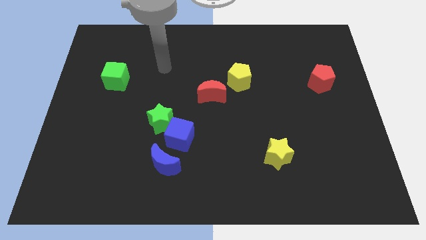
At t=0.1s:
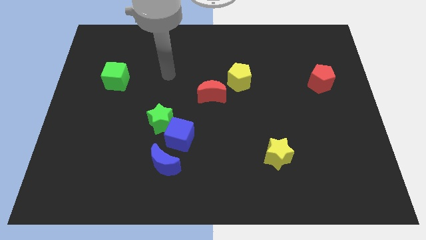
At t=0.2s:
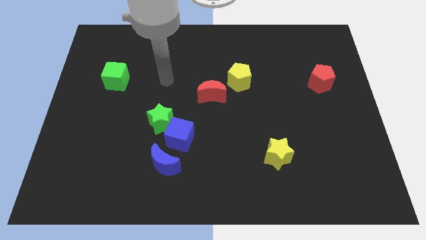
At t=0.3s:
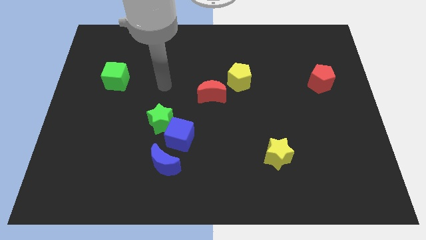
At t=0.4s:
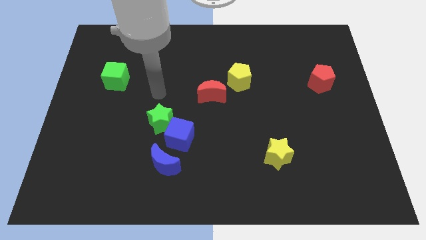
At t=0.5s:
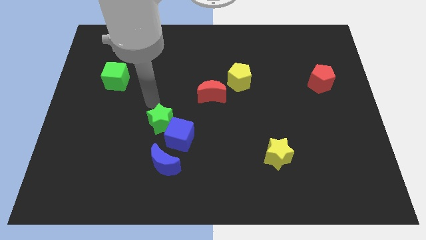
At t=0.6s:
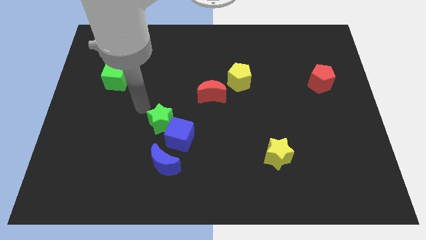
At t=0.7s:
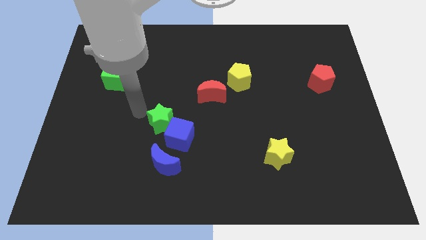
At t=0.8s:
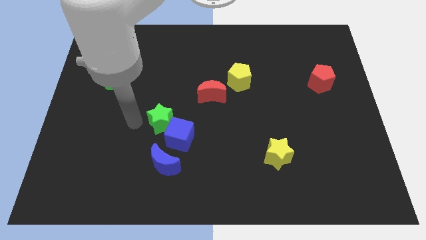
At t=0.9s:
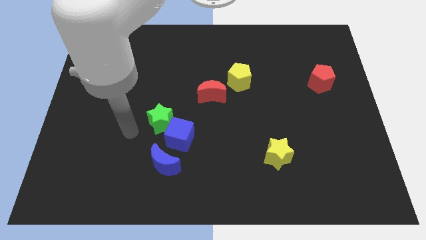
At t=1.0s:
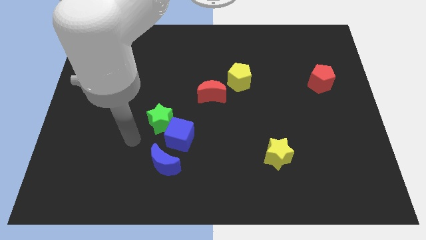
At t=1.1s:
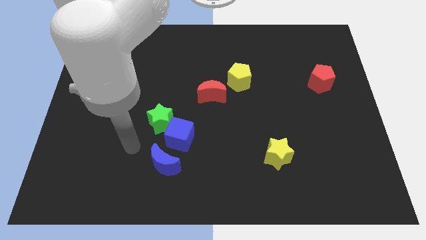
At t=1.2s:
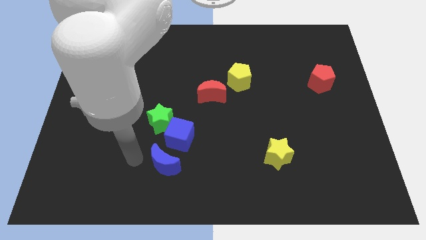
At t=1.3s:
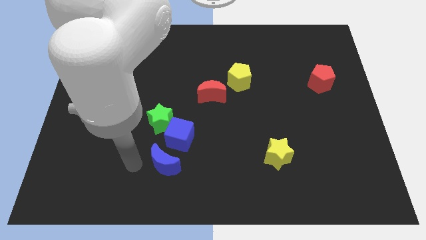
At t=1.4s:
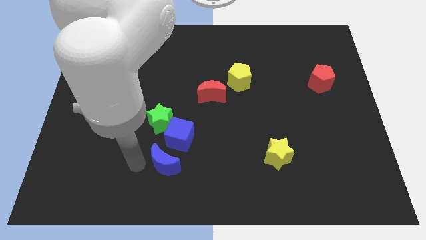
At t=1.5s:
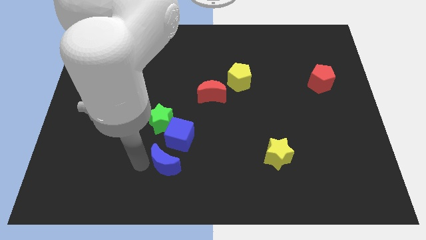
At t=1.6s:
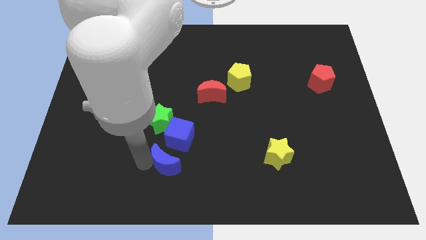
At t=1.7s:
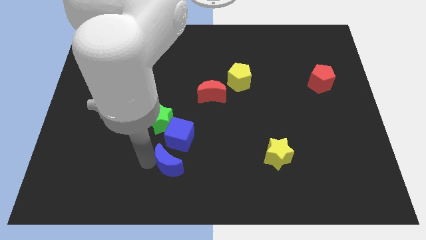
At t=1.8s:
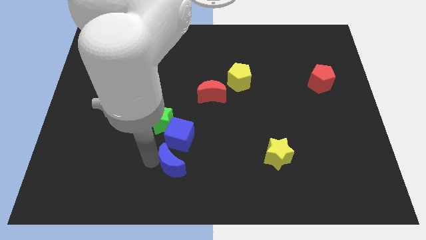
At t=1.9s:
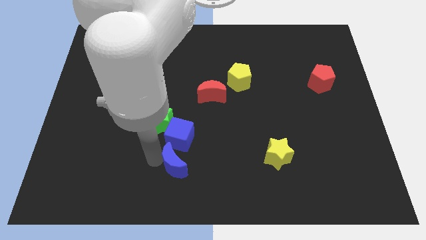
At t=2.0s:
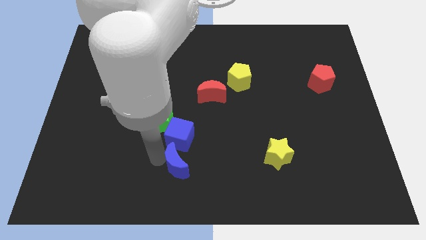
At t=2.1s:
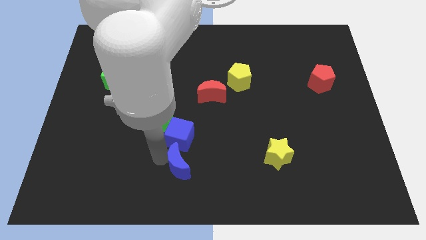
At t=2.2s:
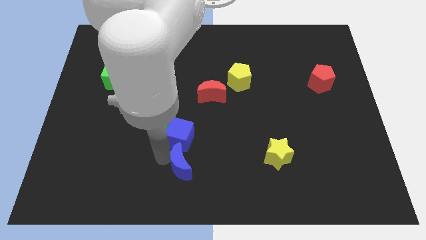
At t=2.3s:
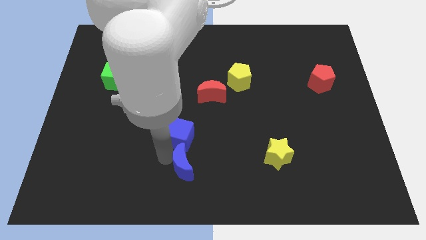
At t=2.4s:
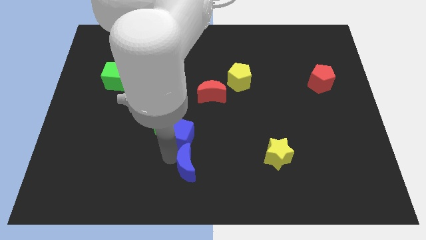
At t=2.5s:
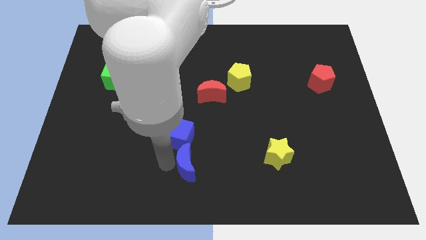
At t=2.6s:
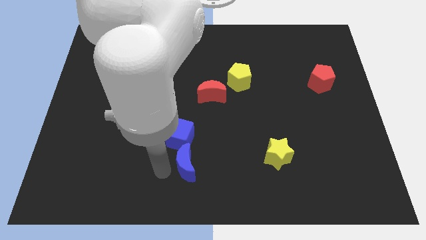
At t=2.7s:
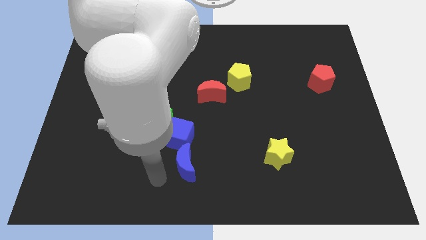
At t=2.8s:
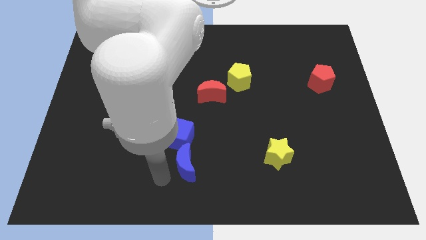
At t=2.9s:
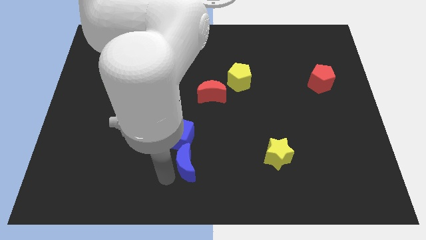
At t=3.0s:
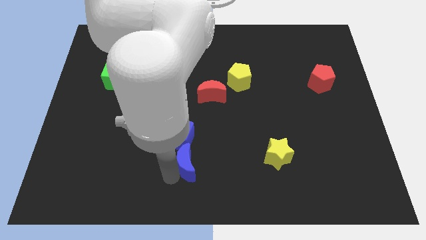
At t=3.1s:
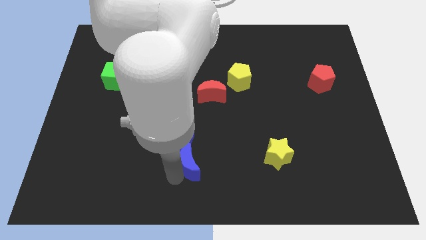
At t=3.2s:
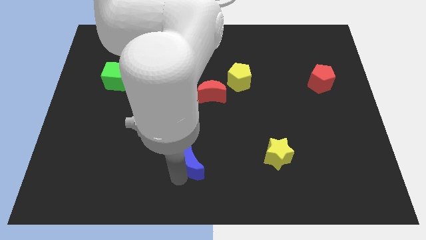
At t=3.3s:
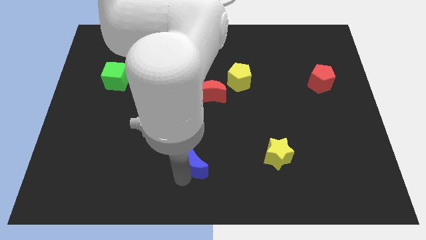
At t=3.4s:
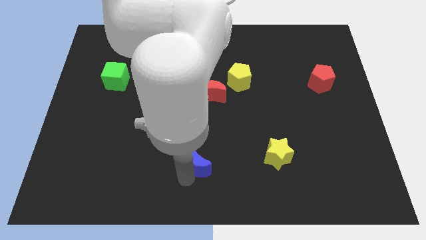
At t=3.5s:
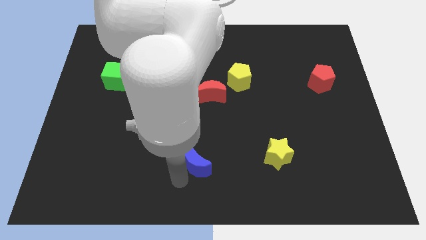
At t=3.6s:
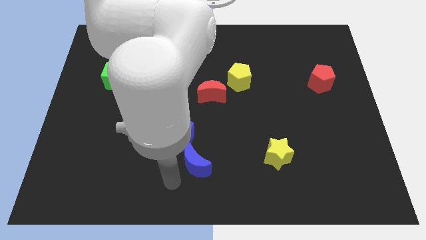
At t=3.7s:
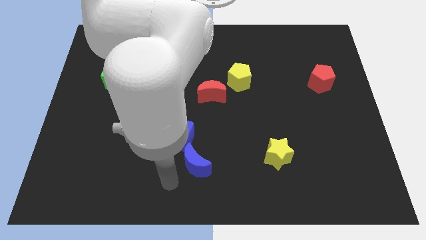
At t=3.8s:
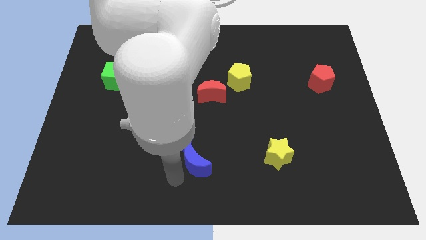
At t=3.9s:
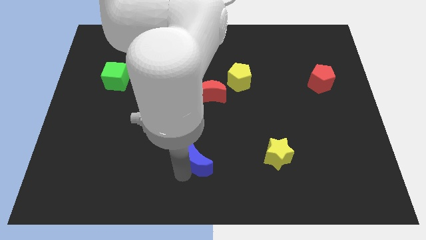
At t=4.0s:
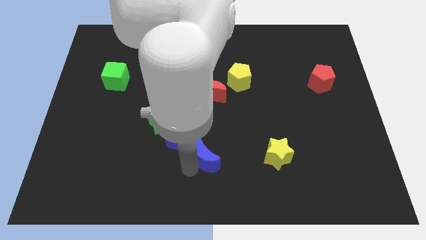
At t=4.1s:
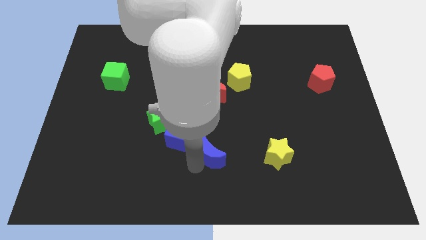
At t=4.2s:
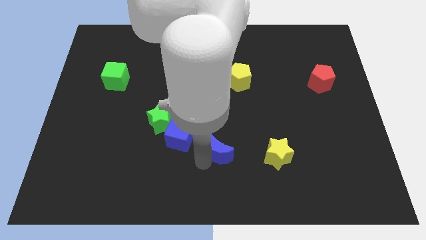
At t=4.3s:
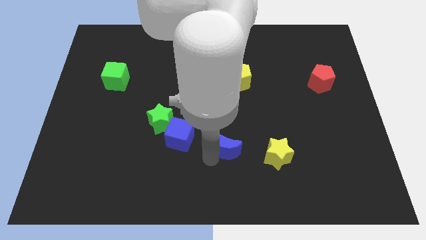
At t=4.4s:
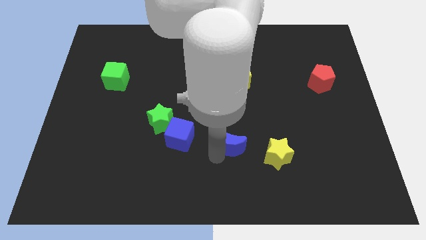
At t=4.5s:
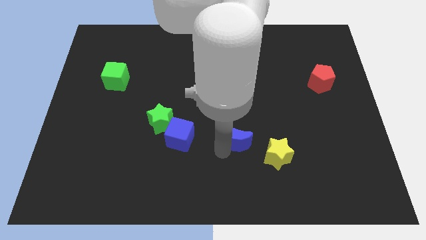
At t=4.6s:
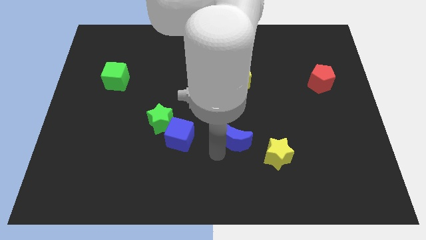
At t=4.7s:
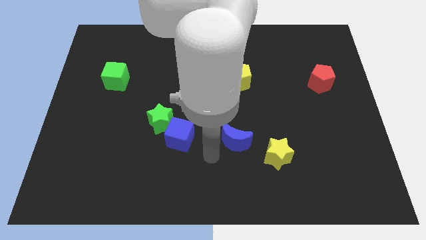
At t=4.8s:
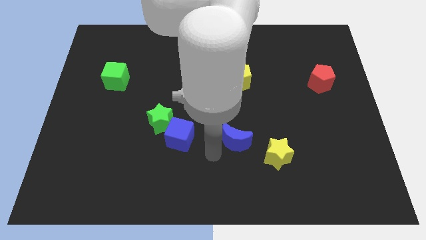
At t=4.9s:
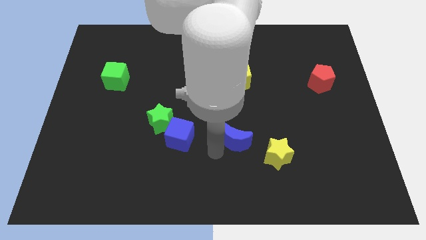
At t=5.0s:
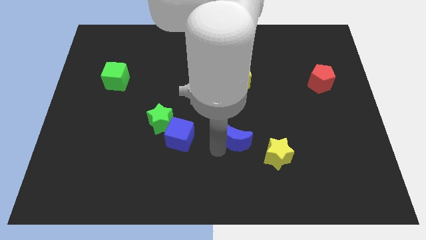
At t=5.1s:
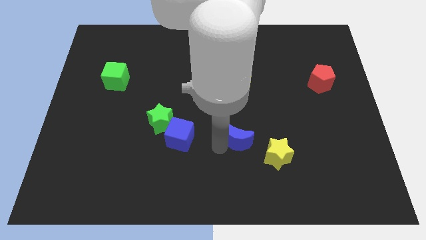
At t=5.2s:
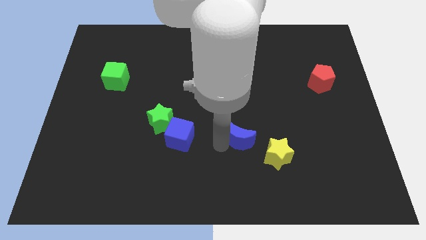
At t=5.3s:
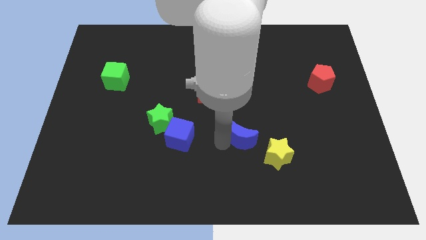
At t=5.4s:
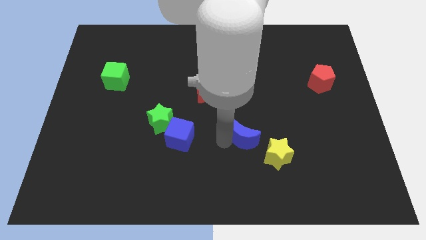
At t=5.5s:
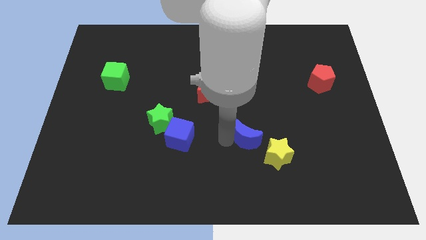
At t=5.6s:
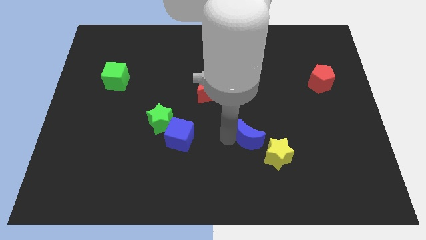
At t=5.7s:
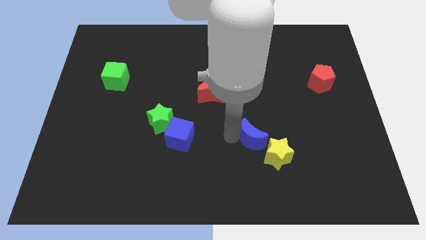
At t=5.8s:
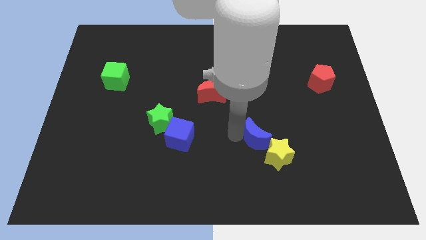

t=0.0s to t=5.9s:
move the blue moon to the top side of the yellow star
